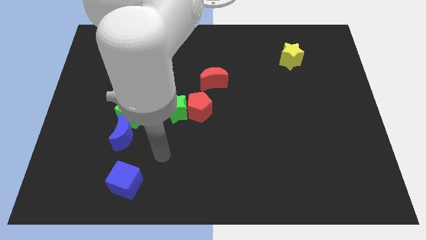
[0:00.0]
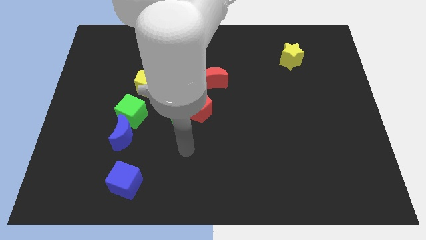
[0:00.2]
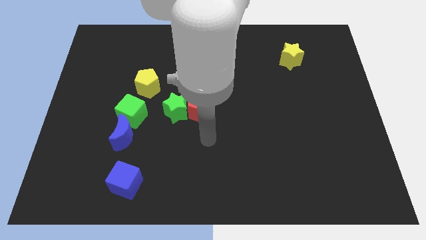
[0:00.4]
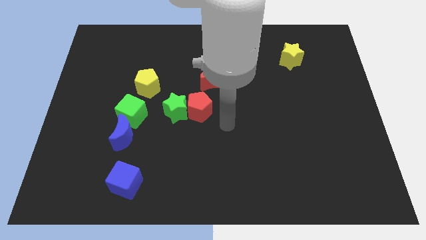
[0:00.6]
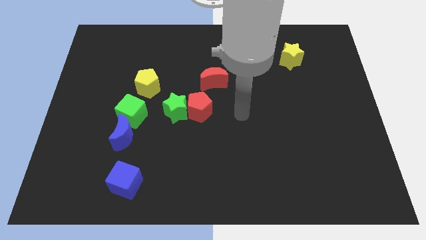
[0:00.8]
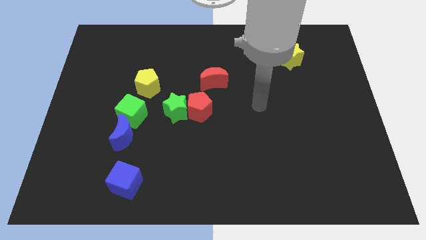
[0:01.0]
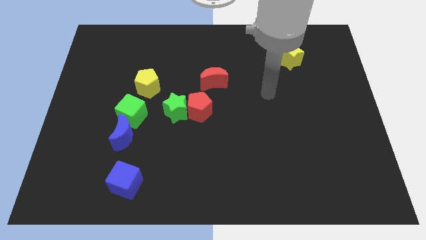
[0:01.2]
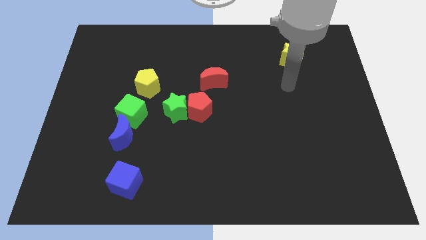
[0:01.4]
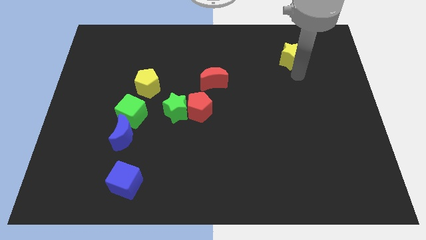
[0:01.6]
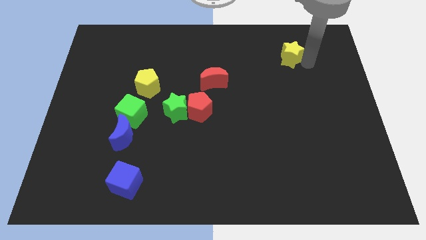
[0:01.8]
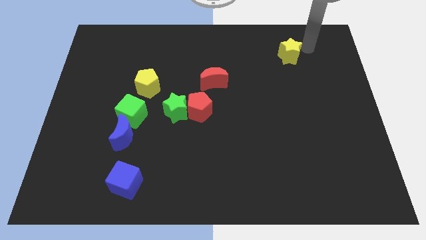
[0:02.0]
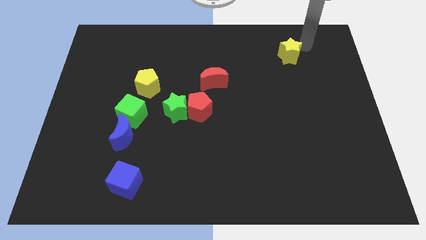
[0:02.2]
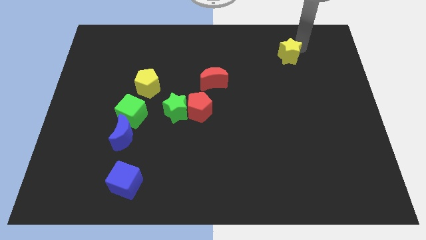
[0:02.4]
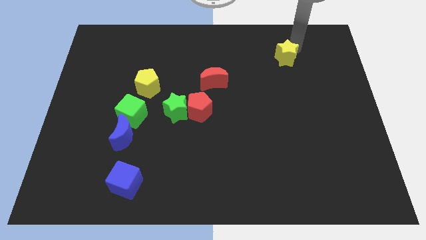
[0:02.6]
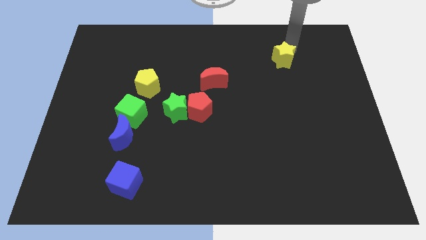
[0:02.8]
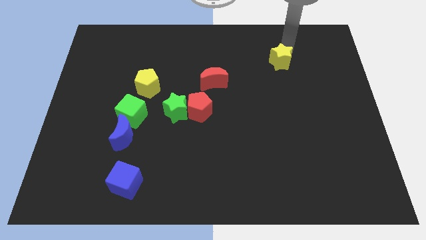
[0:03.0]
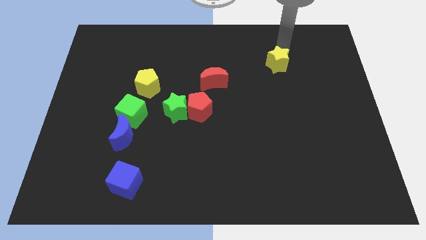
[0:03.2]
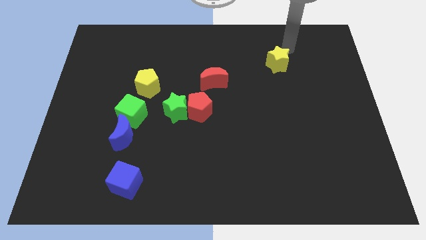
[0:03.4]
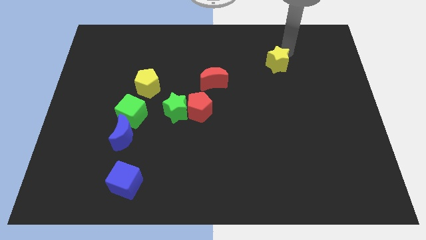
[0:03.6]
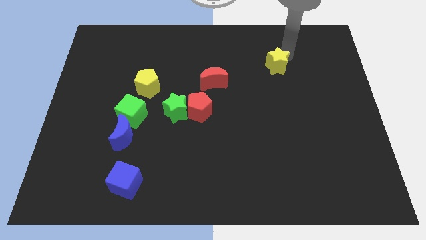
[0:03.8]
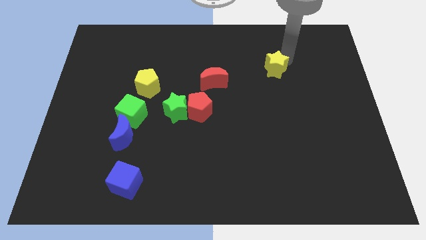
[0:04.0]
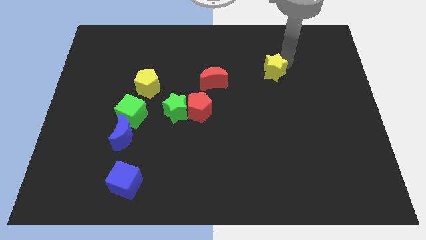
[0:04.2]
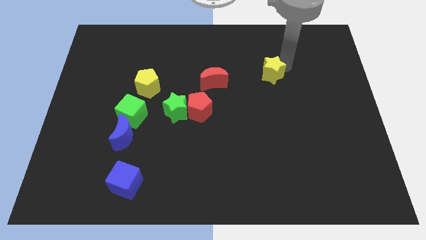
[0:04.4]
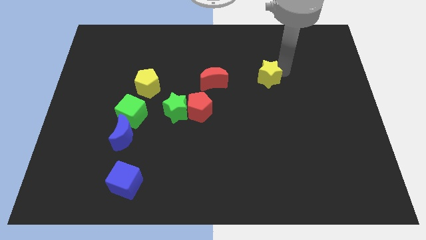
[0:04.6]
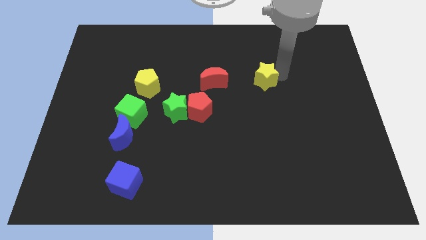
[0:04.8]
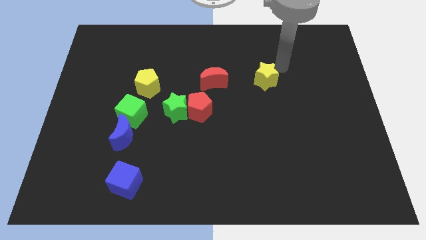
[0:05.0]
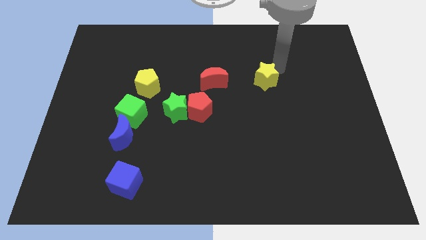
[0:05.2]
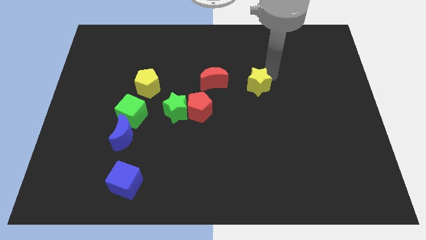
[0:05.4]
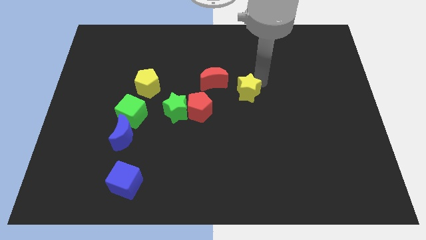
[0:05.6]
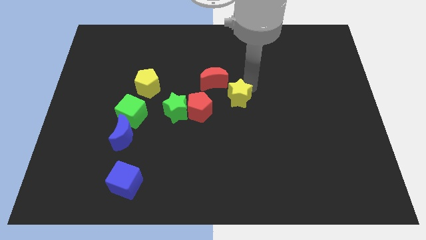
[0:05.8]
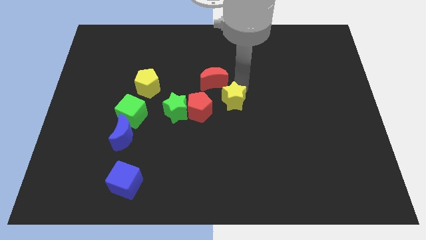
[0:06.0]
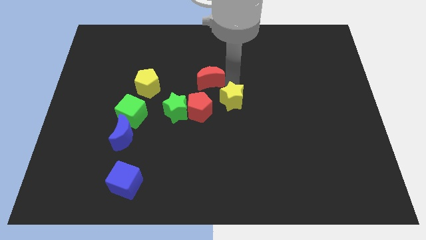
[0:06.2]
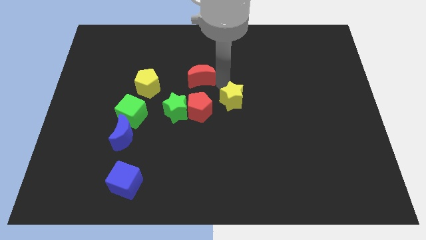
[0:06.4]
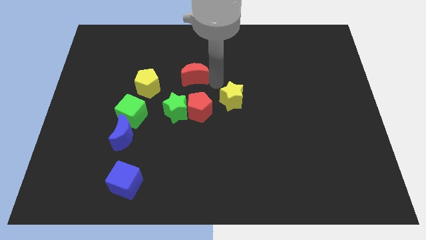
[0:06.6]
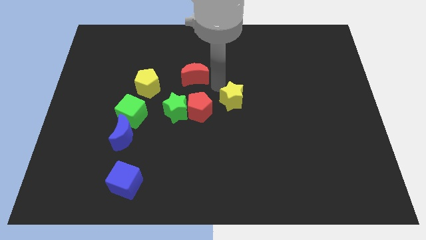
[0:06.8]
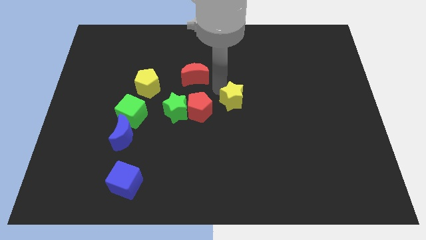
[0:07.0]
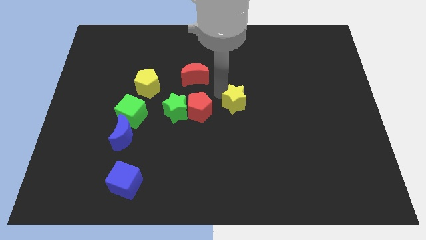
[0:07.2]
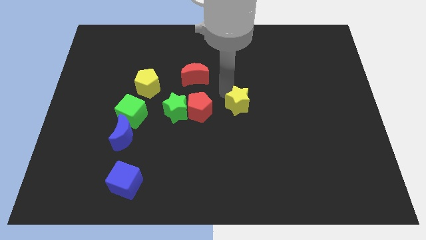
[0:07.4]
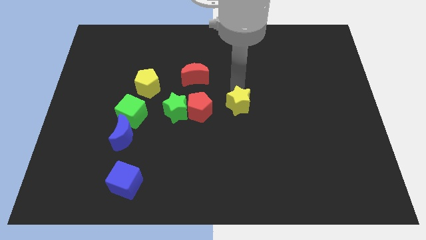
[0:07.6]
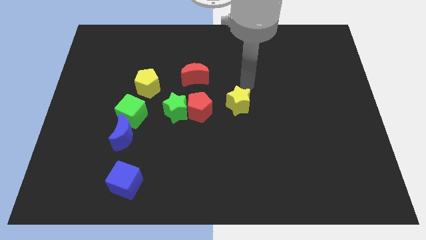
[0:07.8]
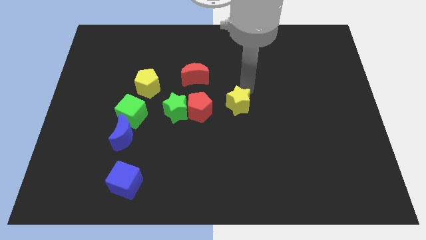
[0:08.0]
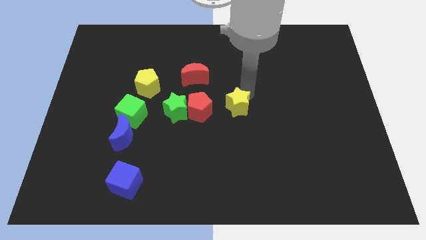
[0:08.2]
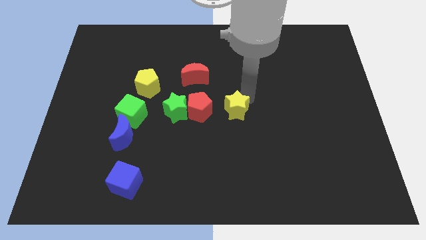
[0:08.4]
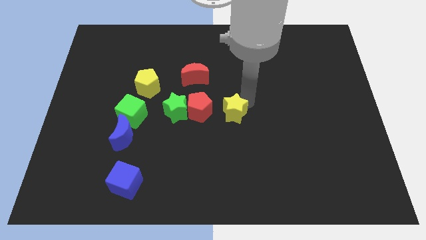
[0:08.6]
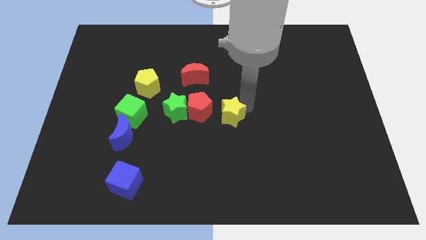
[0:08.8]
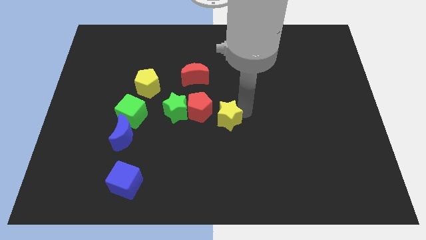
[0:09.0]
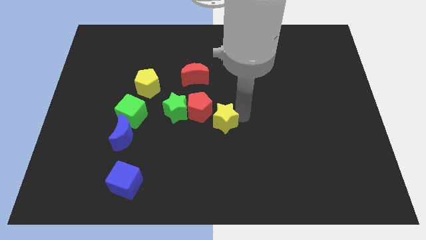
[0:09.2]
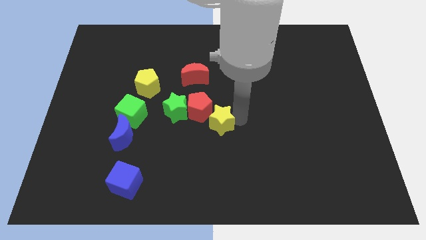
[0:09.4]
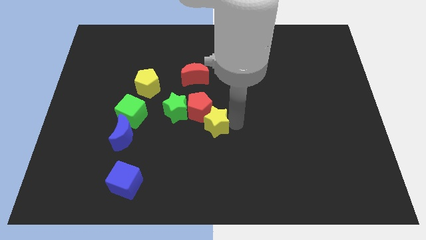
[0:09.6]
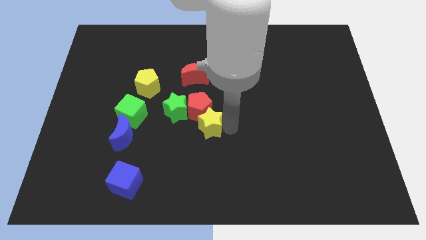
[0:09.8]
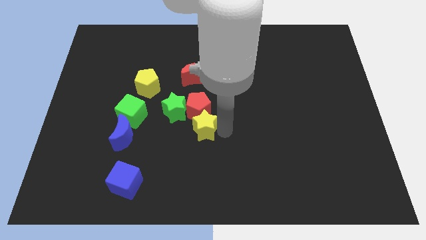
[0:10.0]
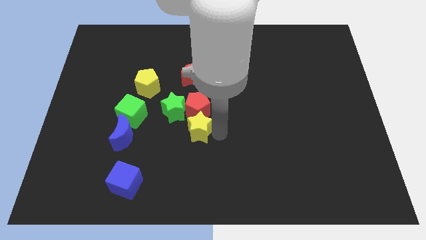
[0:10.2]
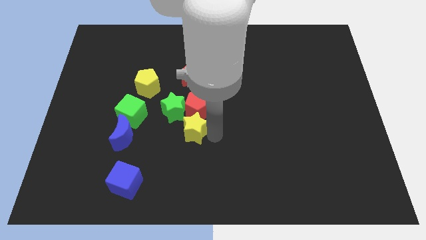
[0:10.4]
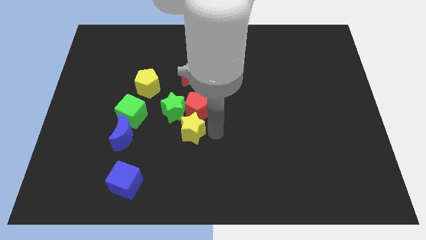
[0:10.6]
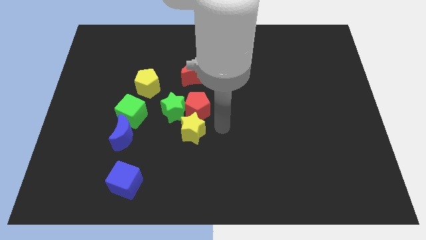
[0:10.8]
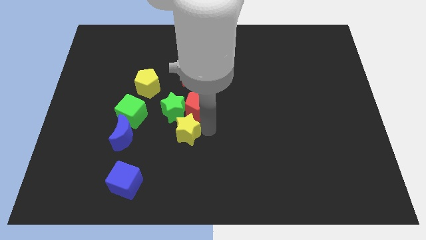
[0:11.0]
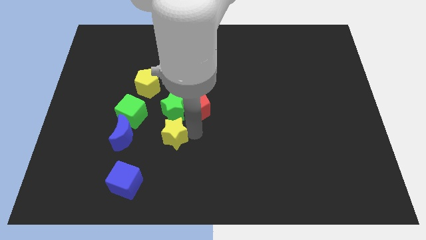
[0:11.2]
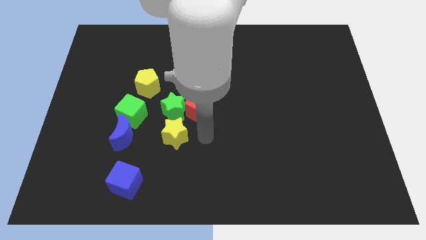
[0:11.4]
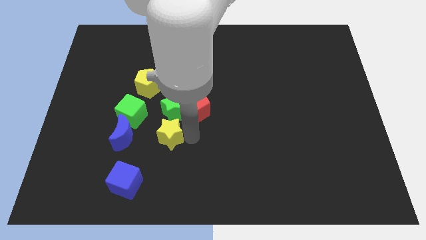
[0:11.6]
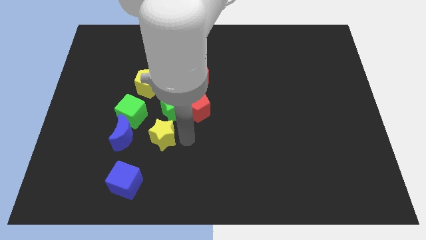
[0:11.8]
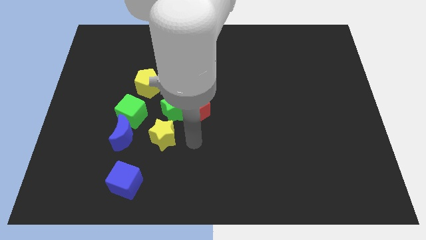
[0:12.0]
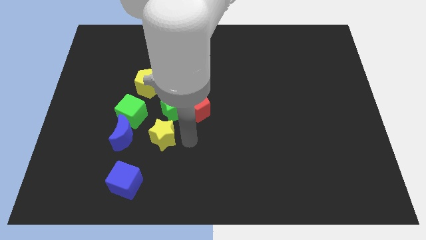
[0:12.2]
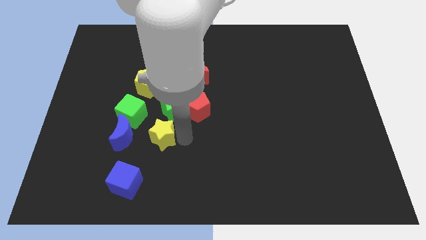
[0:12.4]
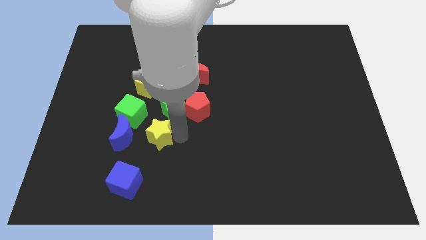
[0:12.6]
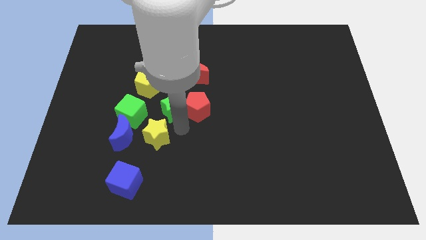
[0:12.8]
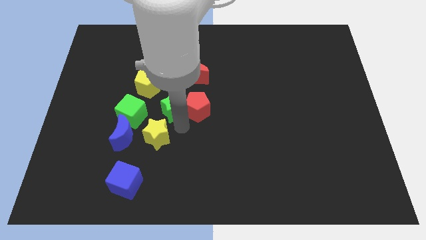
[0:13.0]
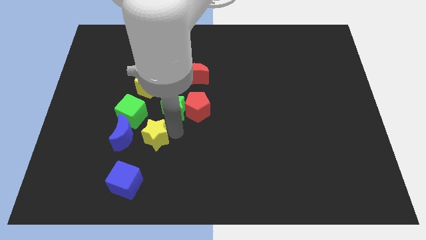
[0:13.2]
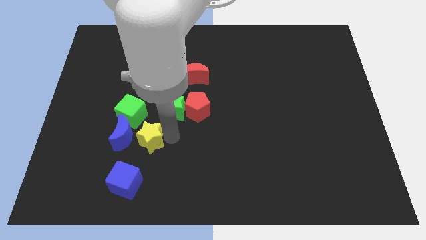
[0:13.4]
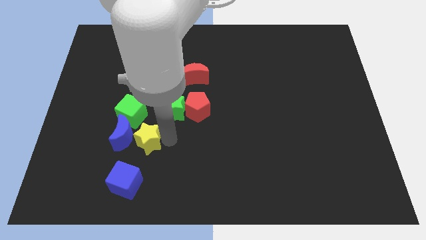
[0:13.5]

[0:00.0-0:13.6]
put the yellow star to the bottom side of the green cube
